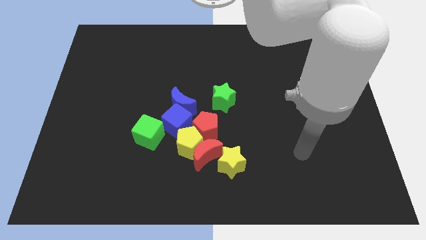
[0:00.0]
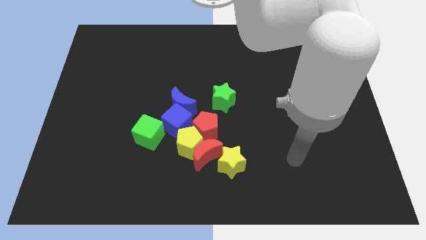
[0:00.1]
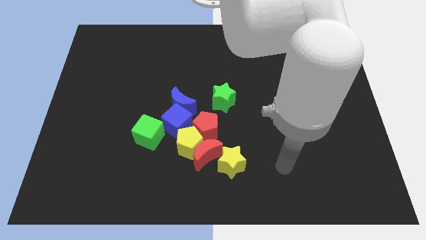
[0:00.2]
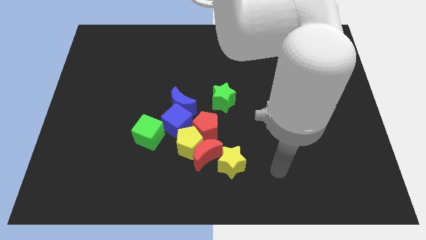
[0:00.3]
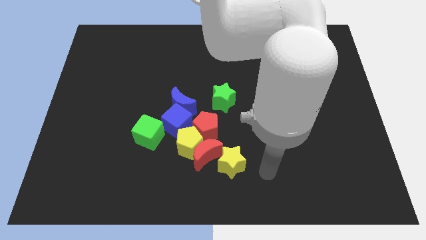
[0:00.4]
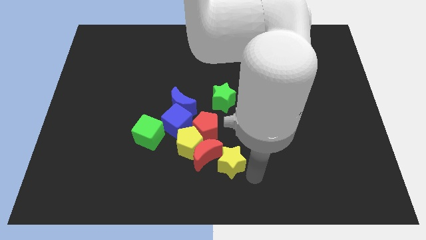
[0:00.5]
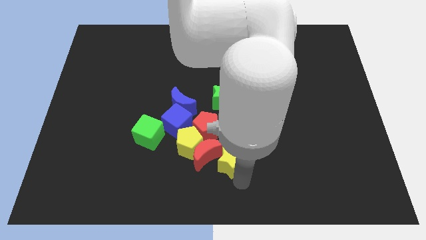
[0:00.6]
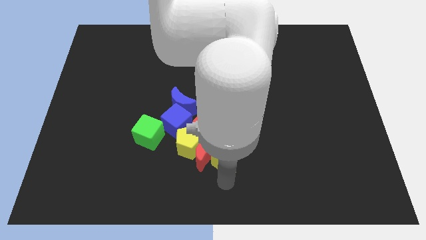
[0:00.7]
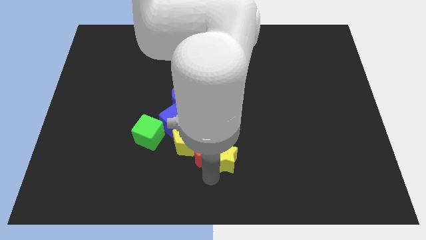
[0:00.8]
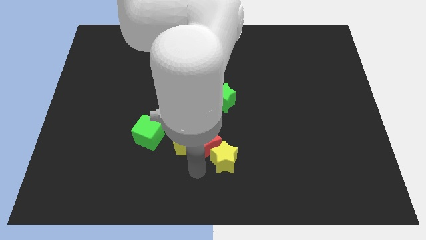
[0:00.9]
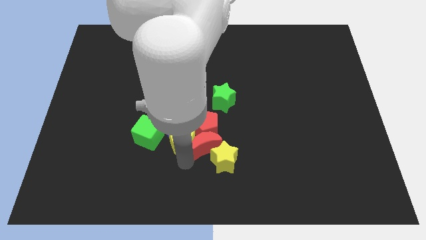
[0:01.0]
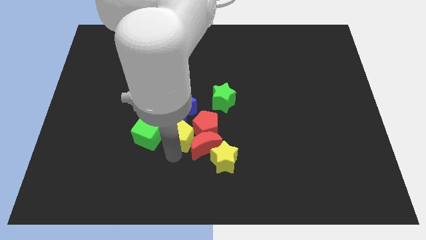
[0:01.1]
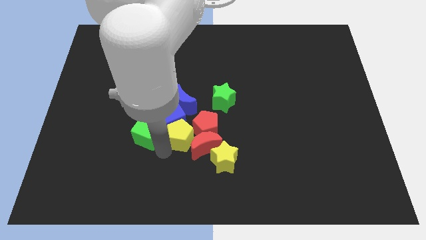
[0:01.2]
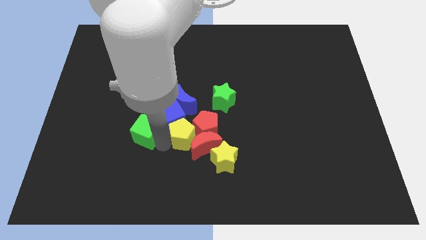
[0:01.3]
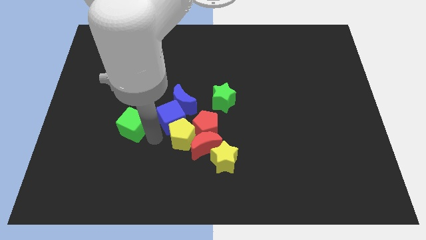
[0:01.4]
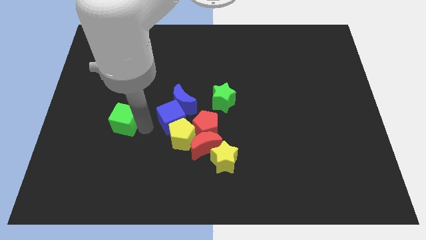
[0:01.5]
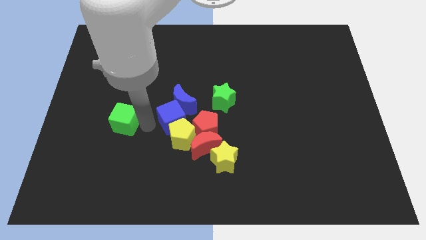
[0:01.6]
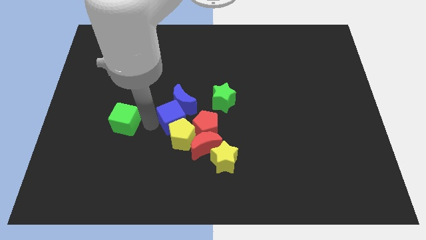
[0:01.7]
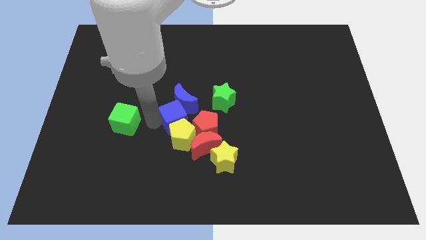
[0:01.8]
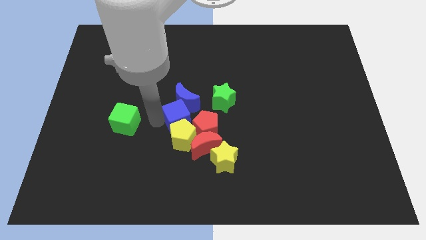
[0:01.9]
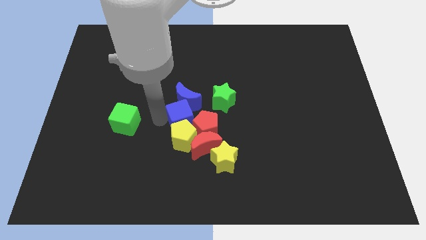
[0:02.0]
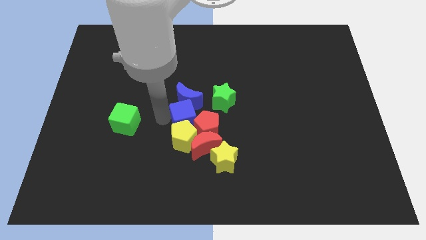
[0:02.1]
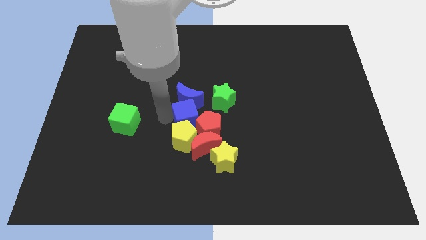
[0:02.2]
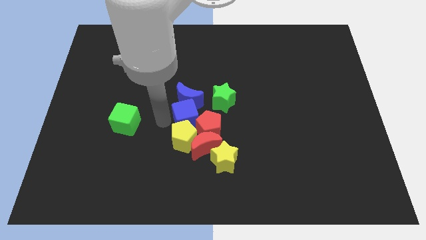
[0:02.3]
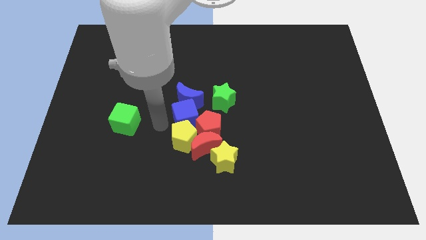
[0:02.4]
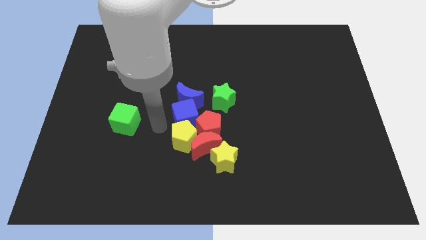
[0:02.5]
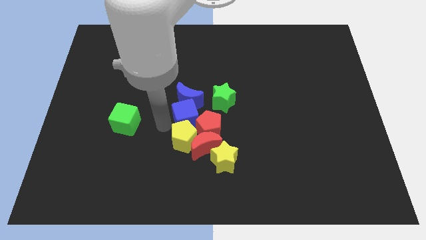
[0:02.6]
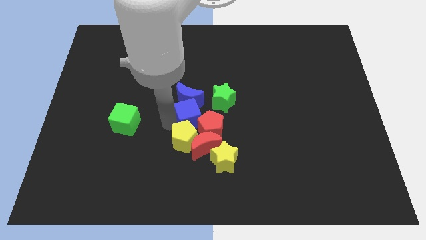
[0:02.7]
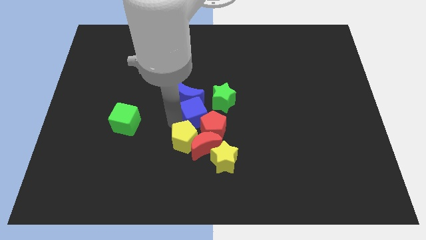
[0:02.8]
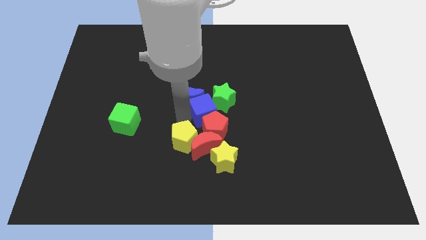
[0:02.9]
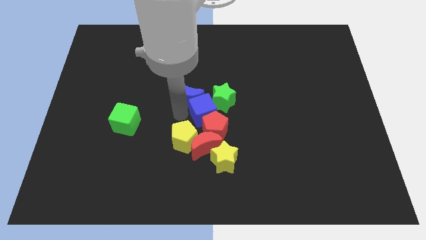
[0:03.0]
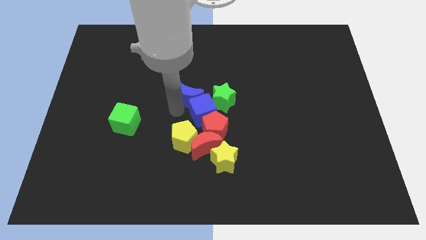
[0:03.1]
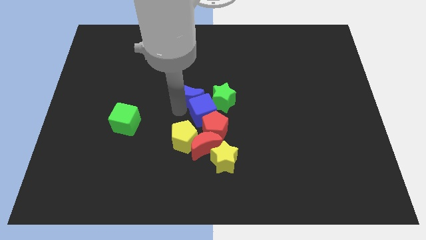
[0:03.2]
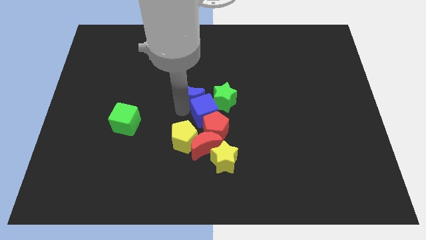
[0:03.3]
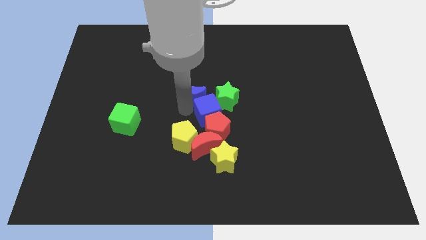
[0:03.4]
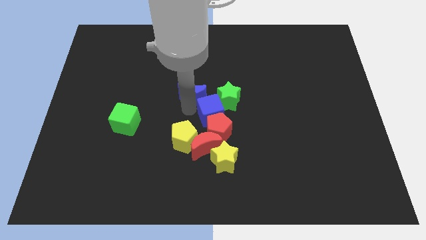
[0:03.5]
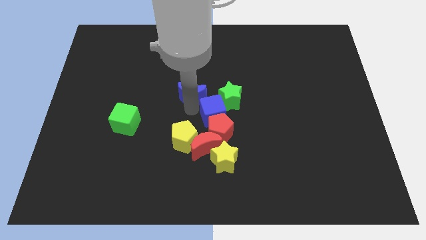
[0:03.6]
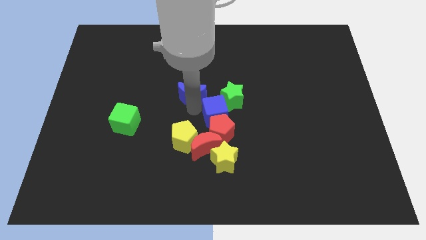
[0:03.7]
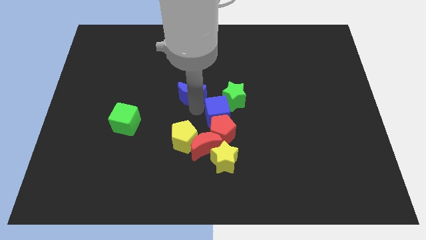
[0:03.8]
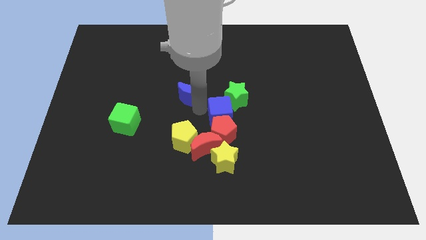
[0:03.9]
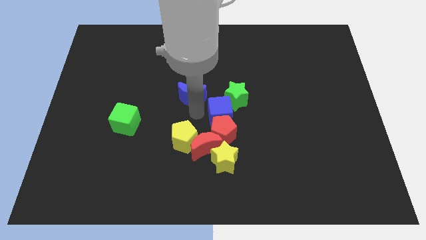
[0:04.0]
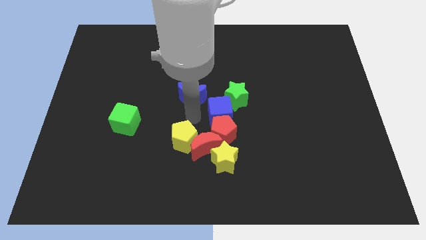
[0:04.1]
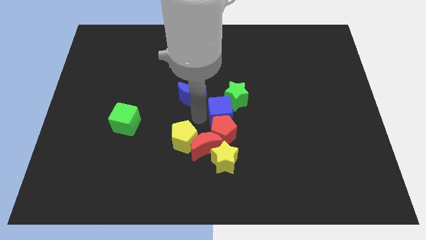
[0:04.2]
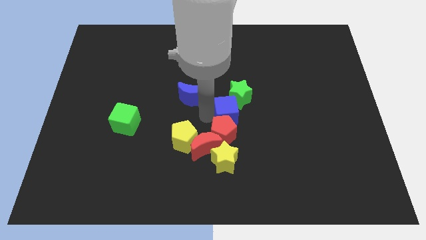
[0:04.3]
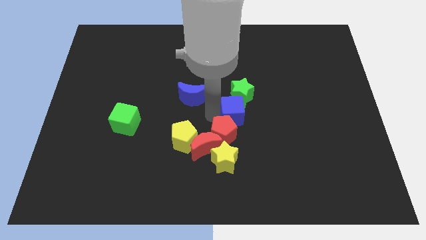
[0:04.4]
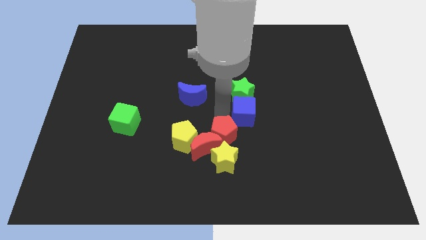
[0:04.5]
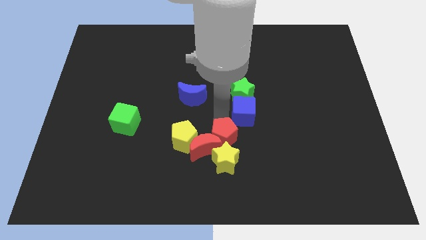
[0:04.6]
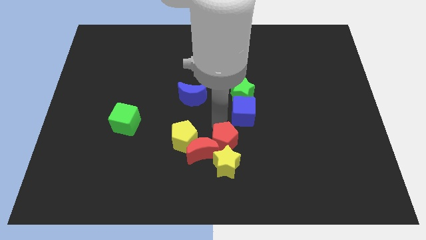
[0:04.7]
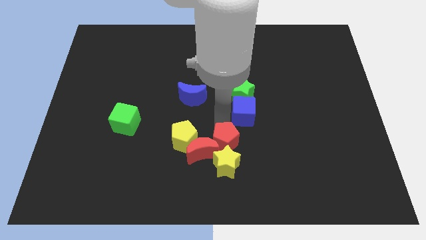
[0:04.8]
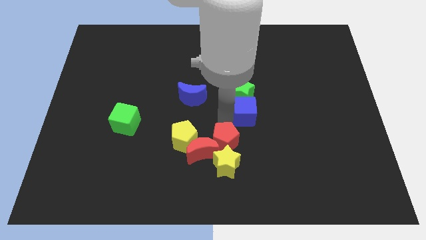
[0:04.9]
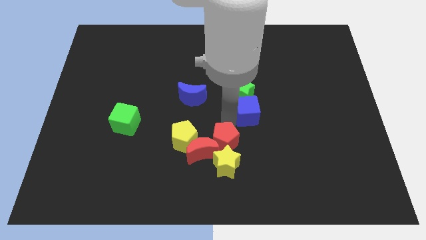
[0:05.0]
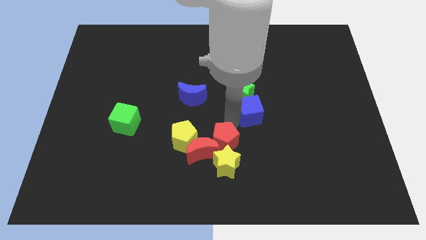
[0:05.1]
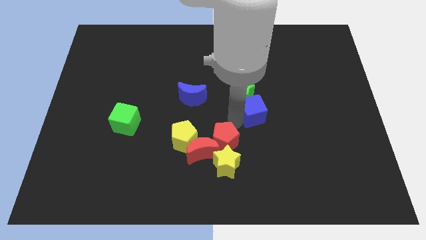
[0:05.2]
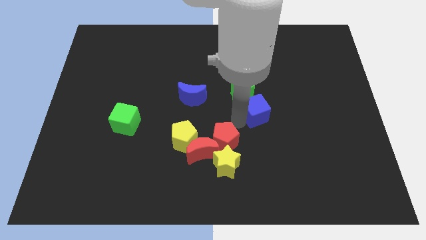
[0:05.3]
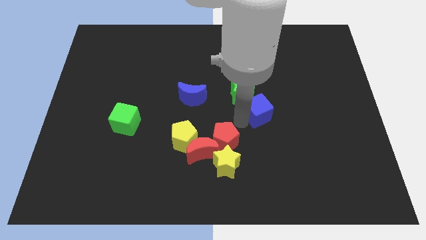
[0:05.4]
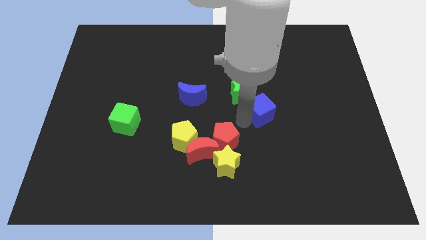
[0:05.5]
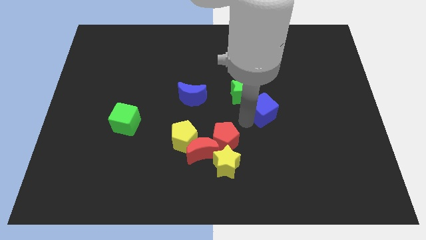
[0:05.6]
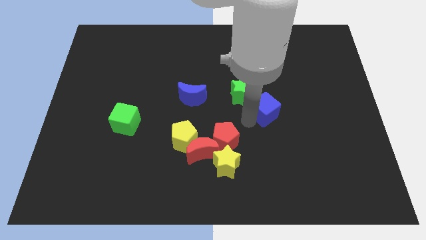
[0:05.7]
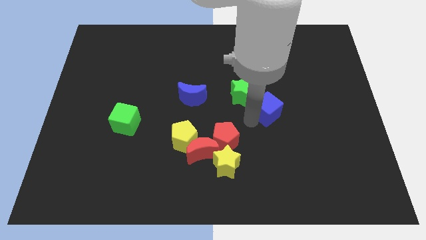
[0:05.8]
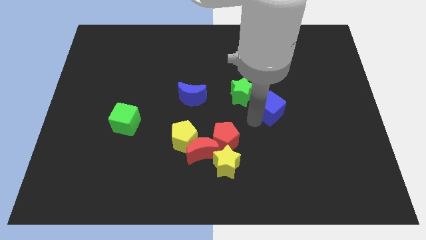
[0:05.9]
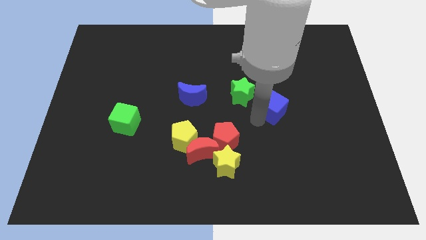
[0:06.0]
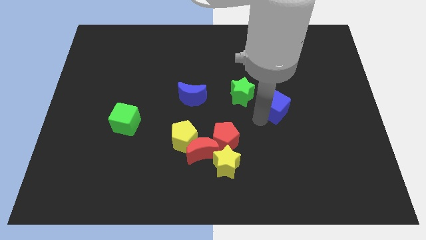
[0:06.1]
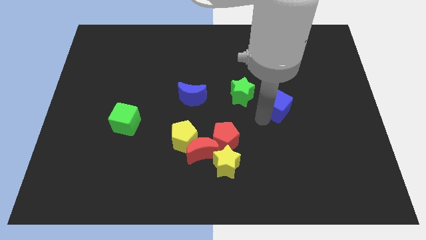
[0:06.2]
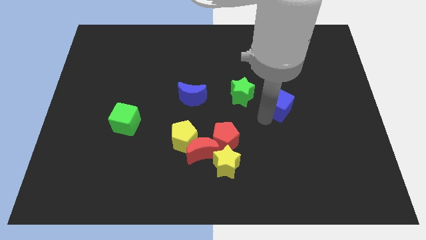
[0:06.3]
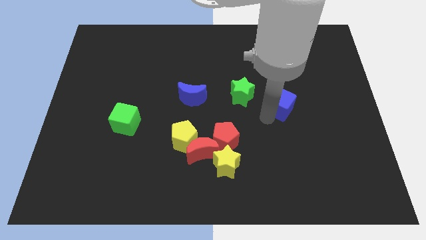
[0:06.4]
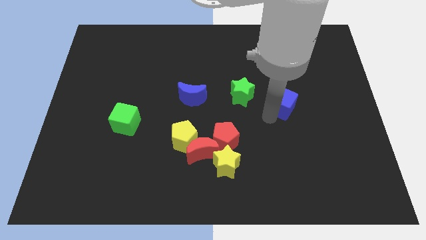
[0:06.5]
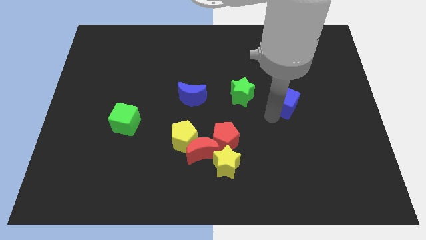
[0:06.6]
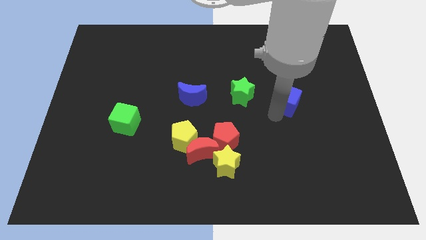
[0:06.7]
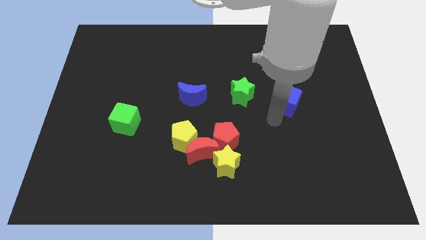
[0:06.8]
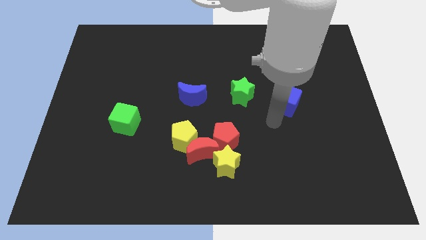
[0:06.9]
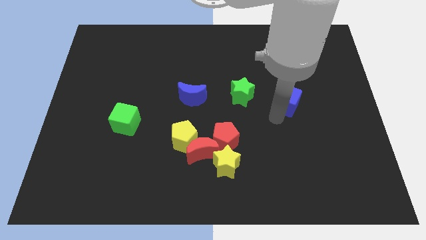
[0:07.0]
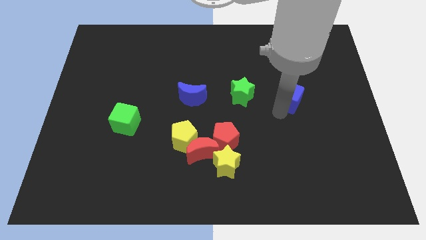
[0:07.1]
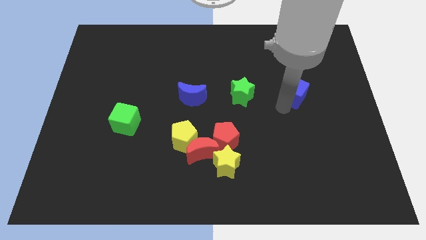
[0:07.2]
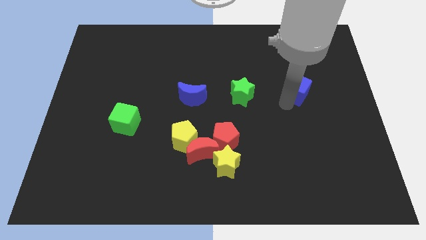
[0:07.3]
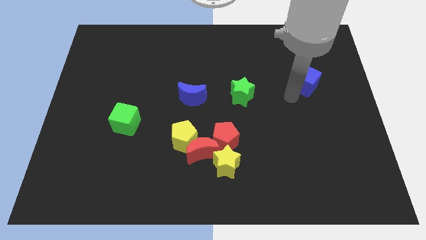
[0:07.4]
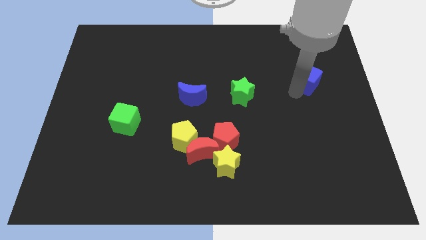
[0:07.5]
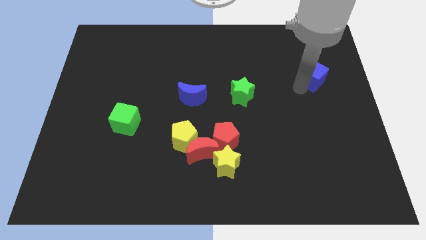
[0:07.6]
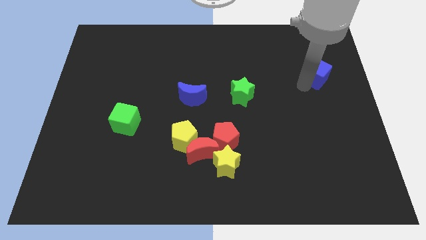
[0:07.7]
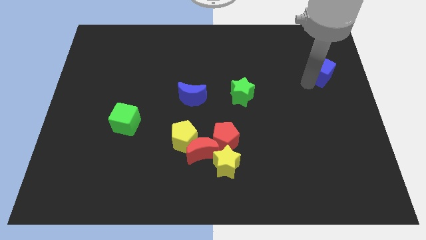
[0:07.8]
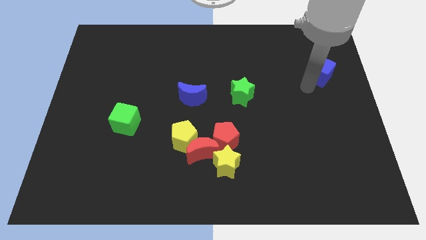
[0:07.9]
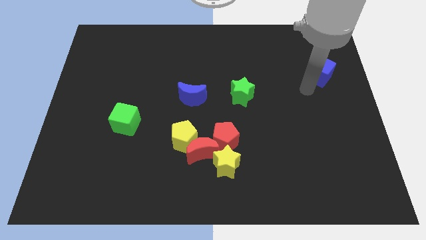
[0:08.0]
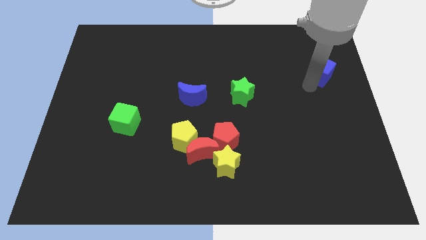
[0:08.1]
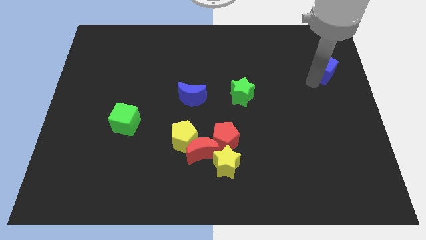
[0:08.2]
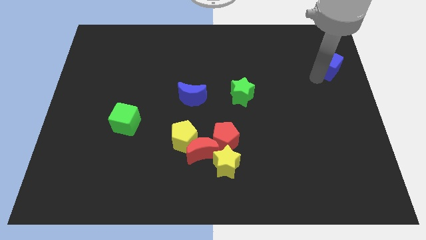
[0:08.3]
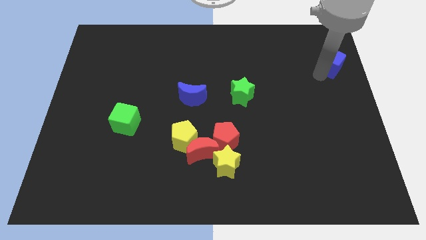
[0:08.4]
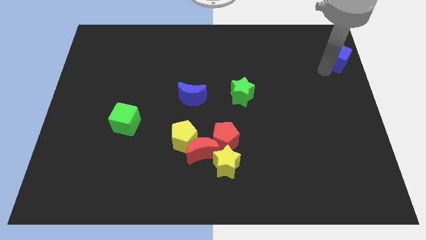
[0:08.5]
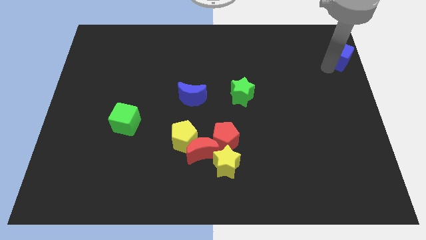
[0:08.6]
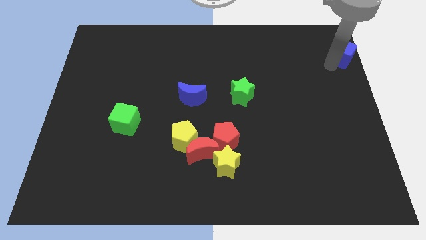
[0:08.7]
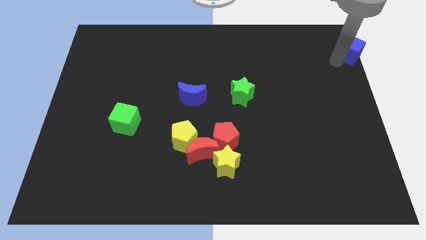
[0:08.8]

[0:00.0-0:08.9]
push the blue cube to the upper right corner
